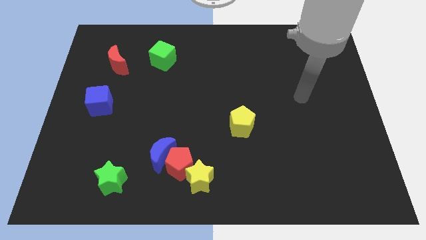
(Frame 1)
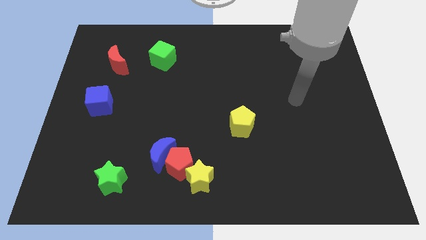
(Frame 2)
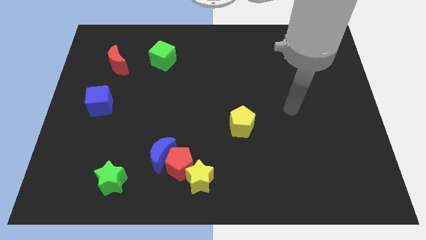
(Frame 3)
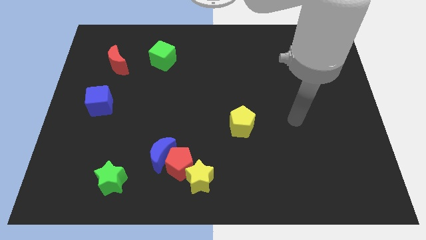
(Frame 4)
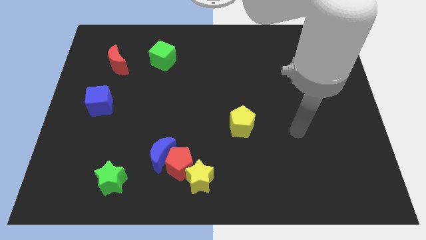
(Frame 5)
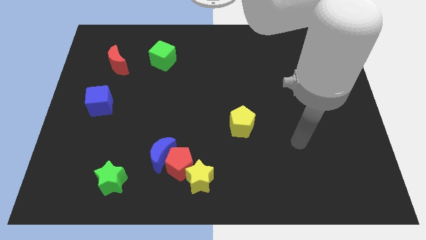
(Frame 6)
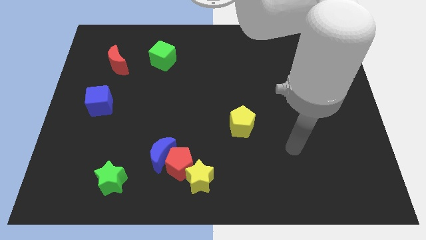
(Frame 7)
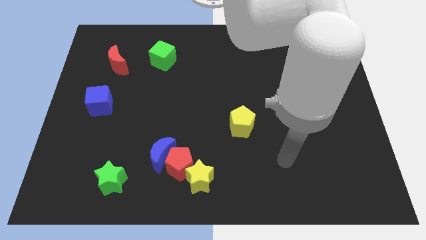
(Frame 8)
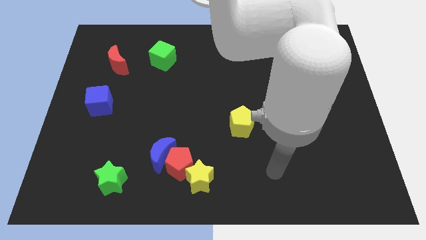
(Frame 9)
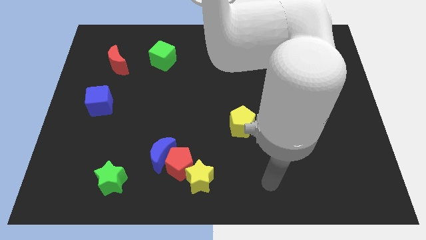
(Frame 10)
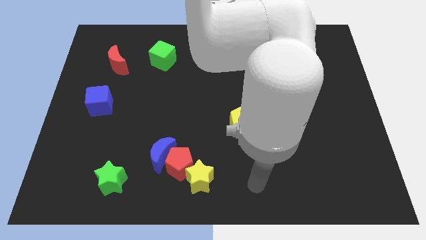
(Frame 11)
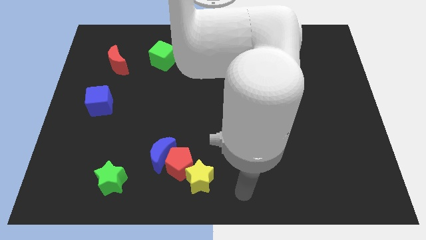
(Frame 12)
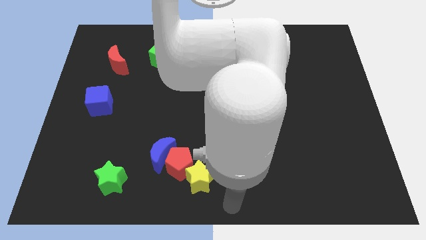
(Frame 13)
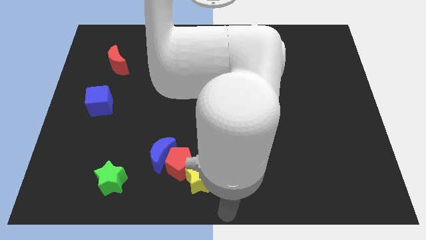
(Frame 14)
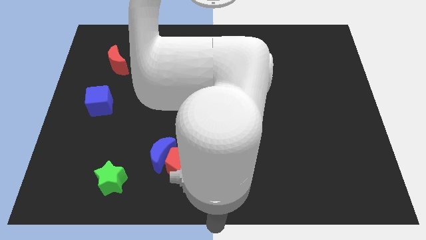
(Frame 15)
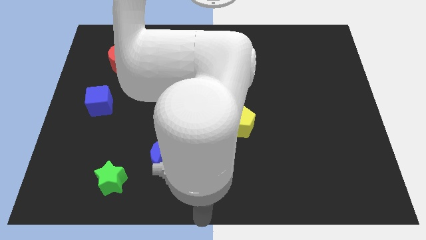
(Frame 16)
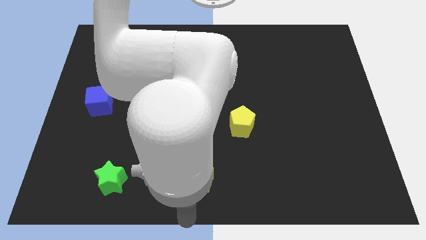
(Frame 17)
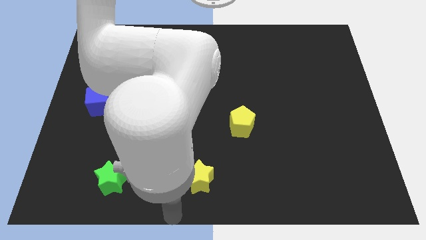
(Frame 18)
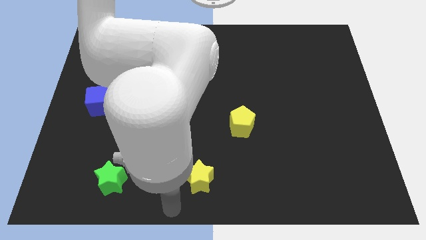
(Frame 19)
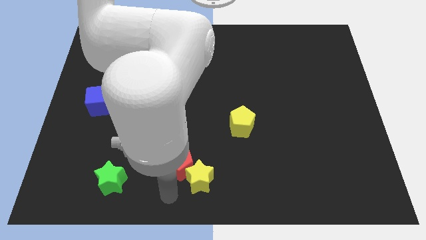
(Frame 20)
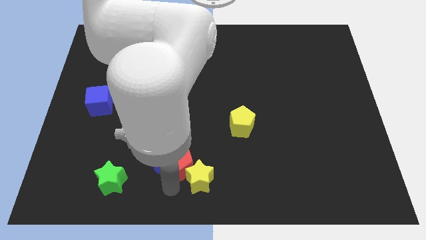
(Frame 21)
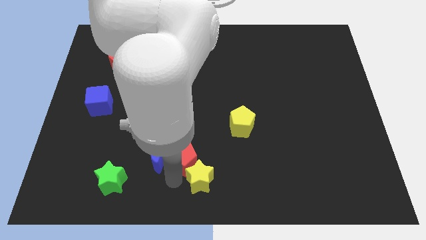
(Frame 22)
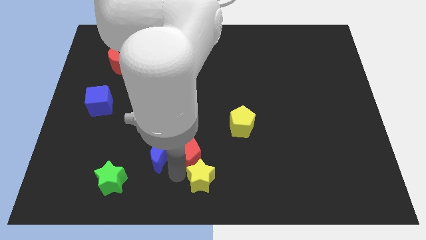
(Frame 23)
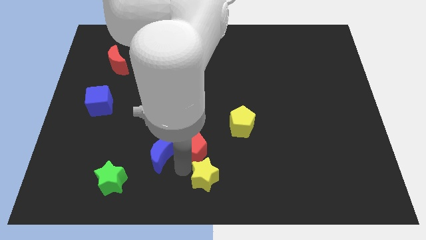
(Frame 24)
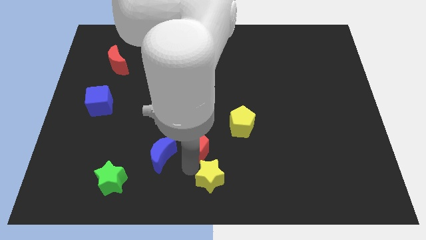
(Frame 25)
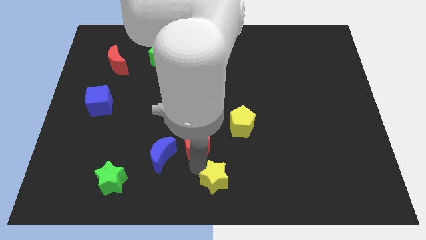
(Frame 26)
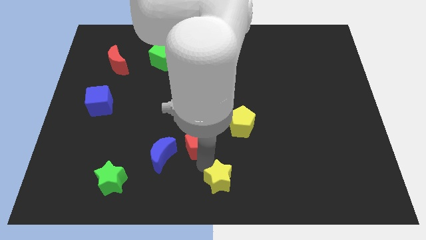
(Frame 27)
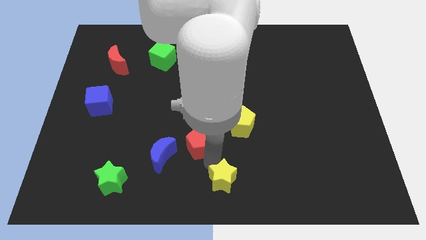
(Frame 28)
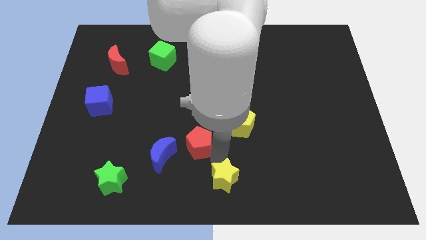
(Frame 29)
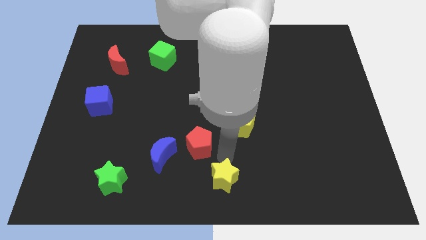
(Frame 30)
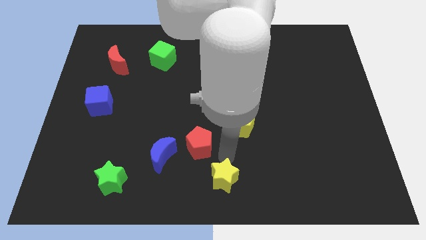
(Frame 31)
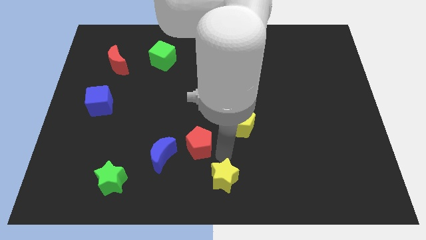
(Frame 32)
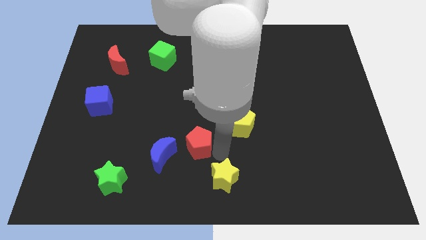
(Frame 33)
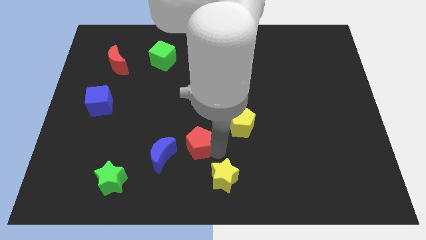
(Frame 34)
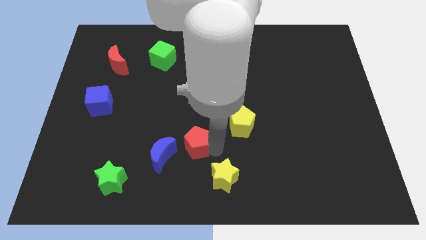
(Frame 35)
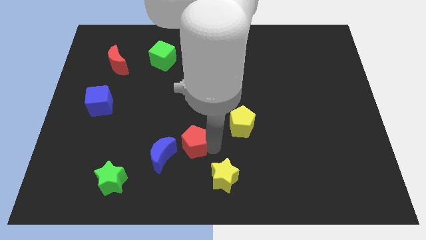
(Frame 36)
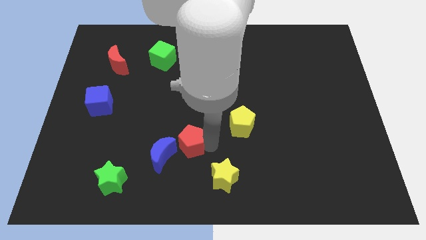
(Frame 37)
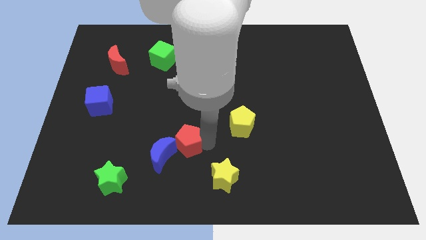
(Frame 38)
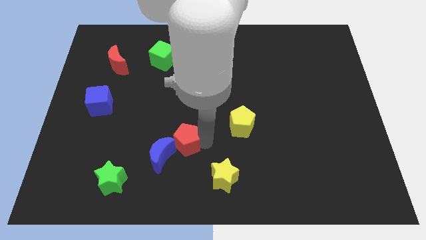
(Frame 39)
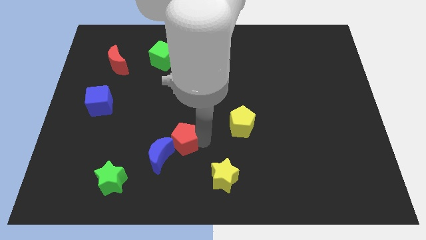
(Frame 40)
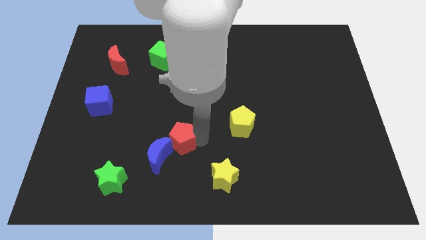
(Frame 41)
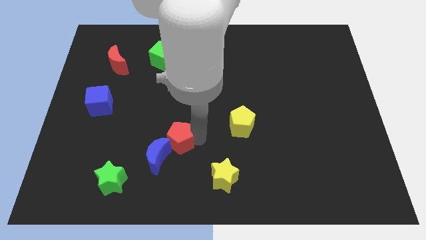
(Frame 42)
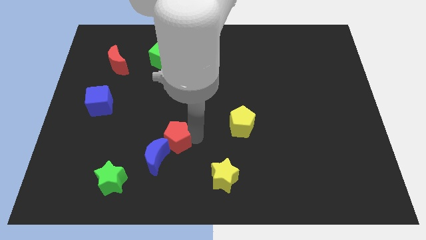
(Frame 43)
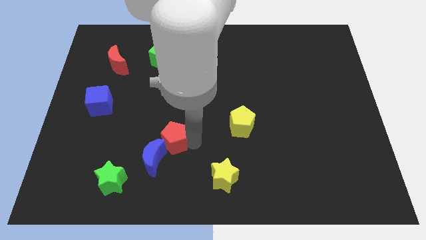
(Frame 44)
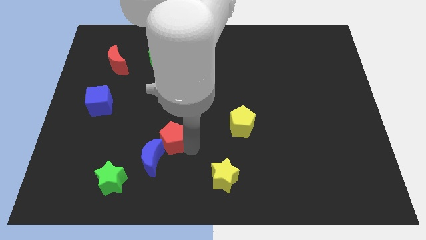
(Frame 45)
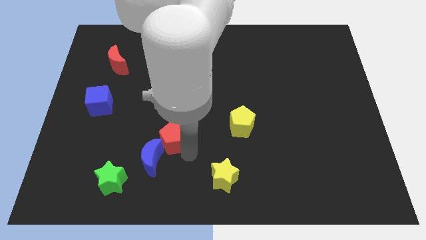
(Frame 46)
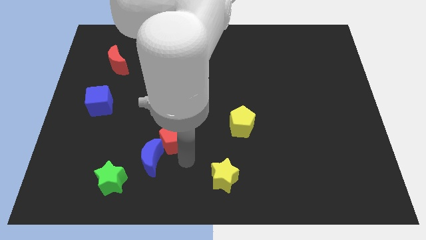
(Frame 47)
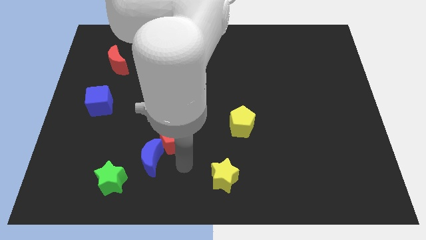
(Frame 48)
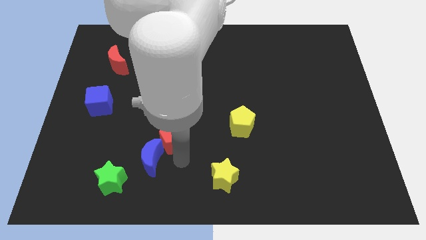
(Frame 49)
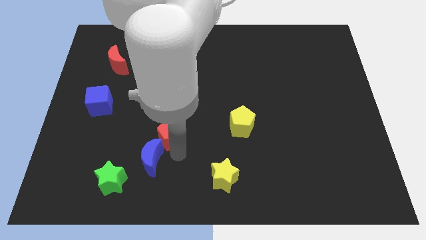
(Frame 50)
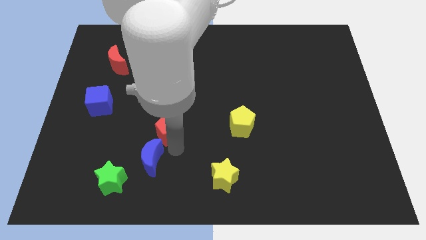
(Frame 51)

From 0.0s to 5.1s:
pull the red pentagon apart from the blue moon and yellow star

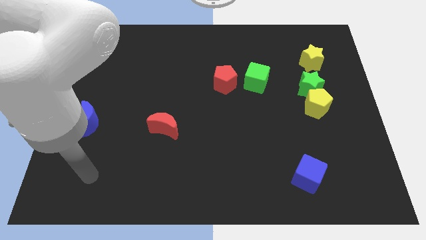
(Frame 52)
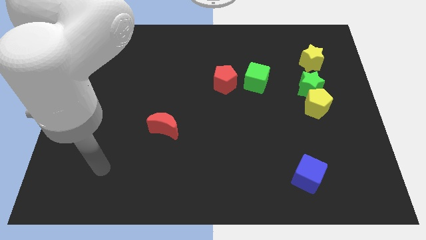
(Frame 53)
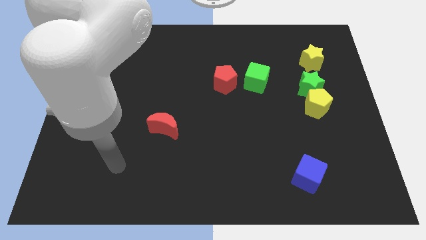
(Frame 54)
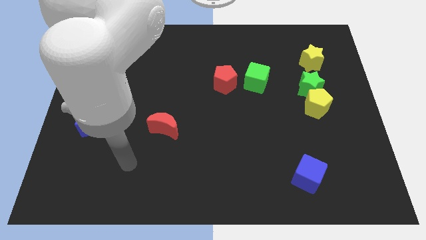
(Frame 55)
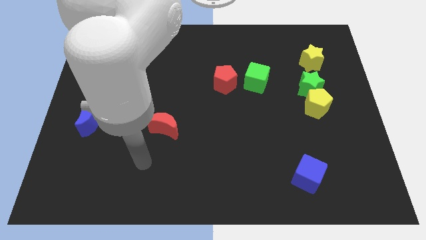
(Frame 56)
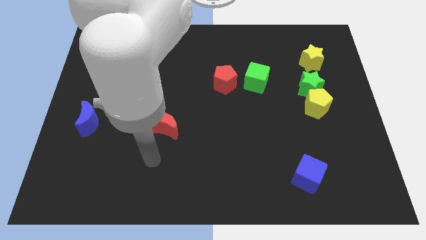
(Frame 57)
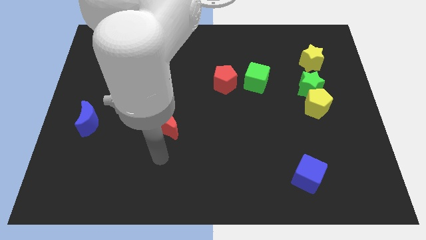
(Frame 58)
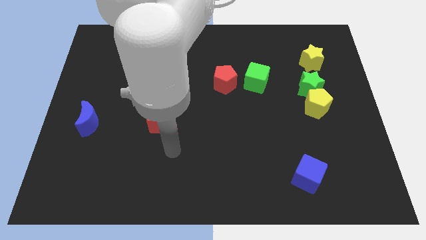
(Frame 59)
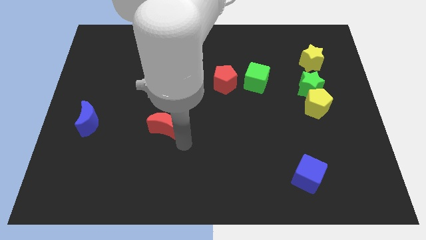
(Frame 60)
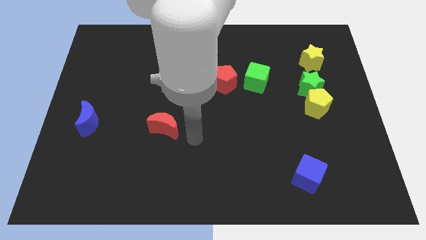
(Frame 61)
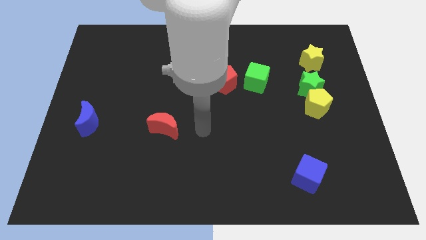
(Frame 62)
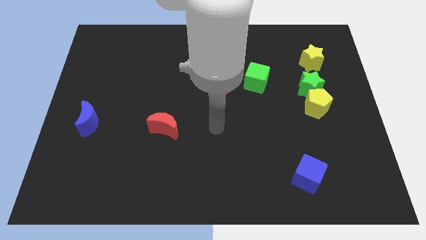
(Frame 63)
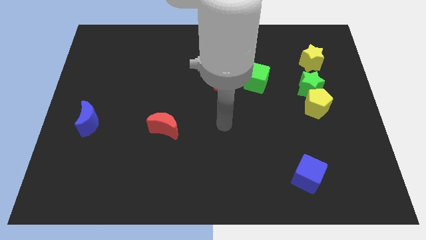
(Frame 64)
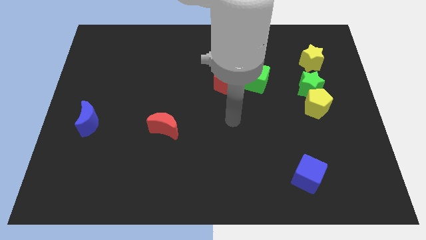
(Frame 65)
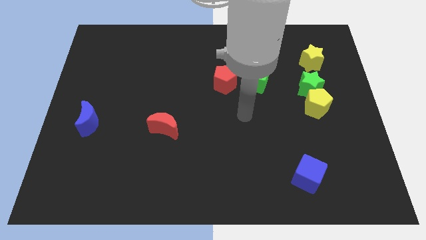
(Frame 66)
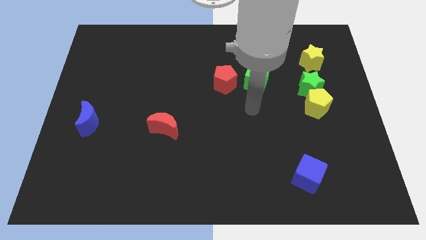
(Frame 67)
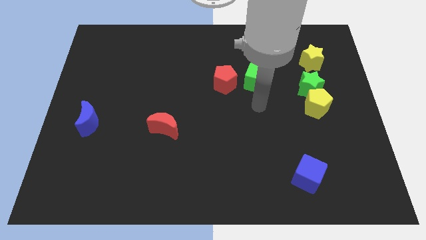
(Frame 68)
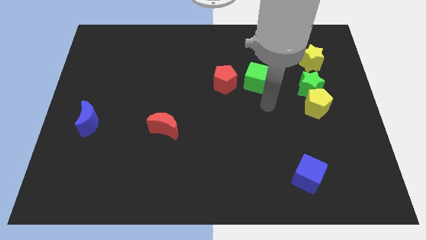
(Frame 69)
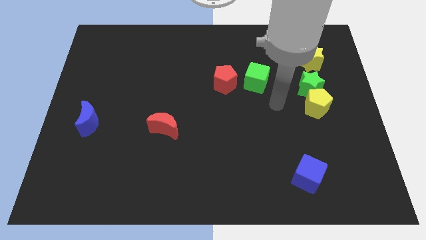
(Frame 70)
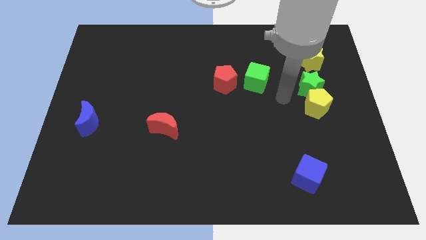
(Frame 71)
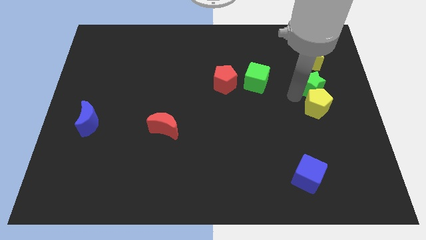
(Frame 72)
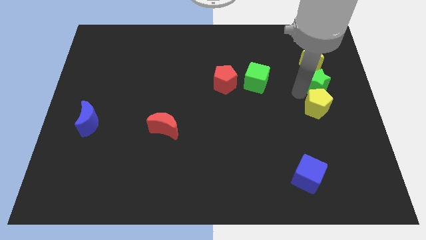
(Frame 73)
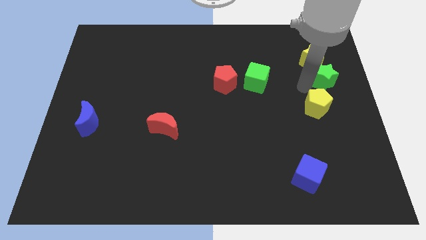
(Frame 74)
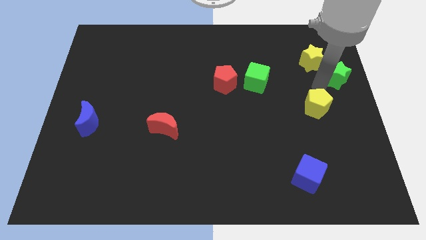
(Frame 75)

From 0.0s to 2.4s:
pull the yellow pentagon apart from the green star

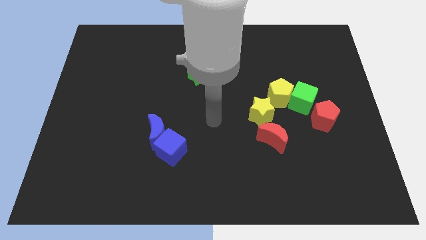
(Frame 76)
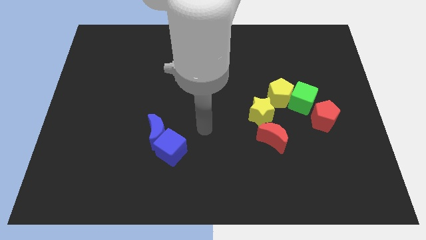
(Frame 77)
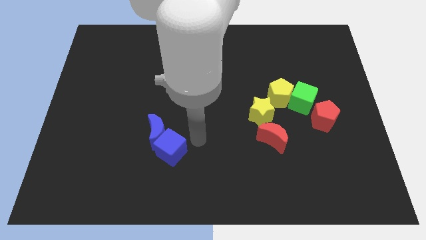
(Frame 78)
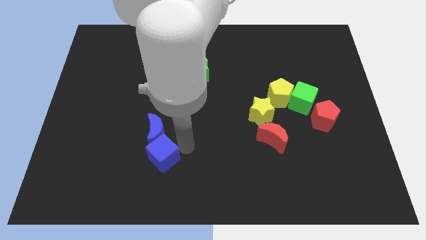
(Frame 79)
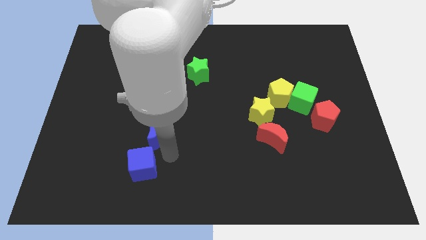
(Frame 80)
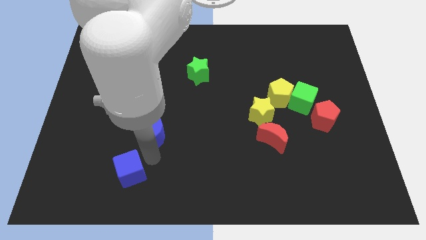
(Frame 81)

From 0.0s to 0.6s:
separate the blue moon from the blue cube

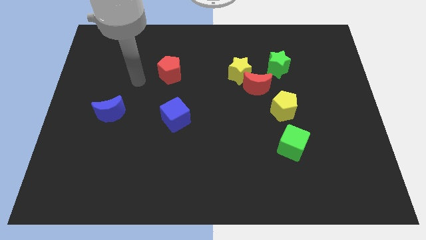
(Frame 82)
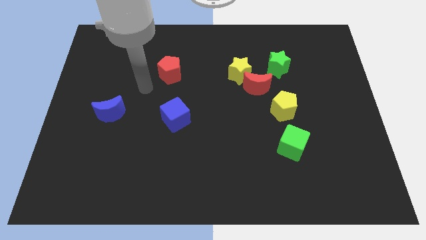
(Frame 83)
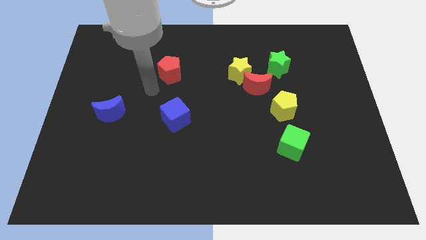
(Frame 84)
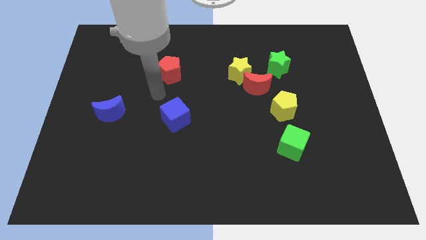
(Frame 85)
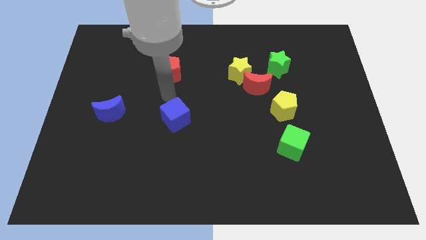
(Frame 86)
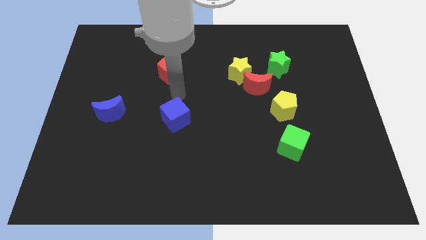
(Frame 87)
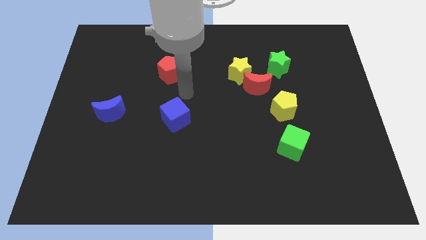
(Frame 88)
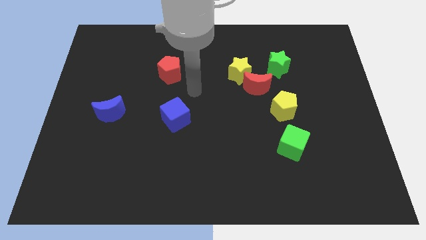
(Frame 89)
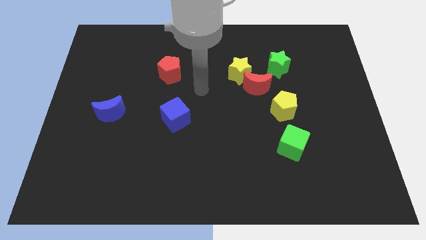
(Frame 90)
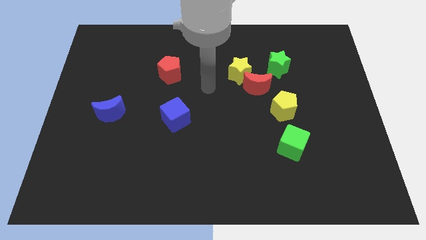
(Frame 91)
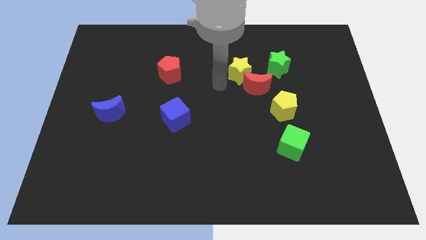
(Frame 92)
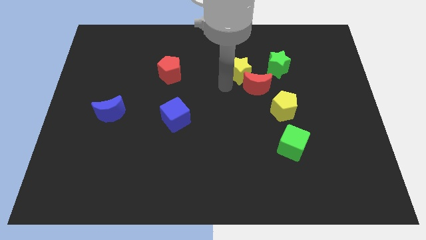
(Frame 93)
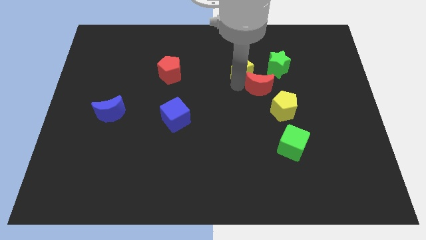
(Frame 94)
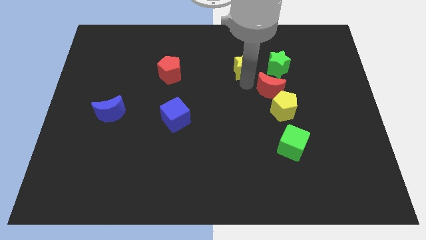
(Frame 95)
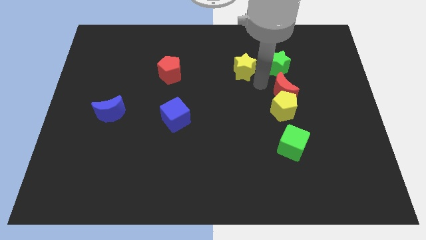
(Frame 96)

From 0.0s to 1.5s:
move the yellow star away from the red moon

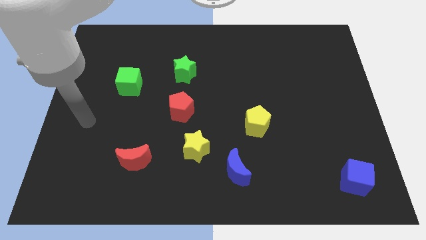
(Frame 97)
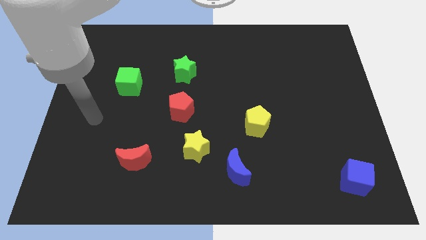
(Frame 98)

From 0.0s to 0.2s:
move the blue moon away from the yellow star
